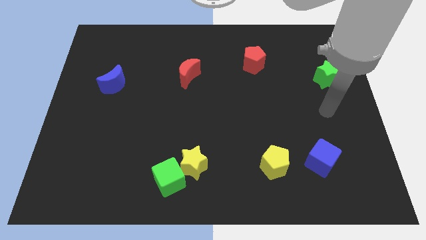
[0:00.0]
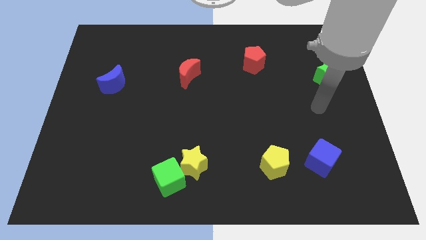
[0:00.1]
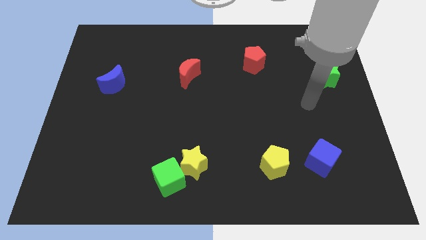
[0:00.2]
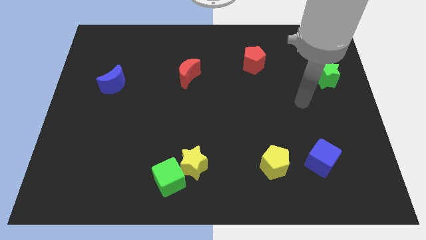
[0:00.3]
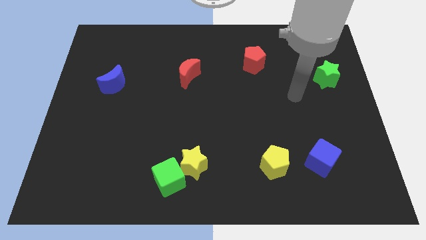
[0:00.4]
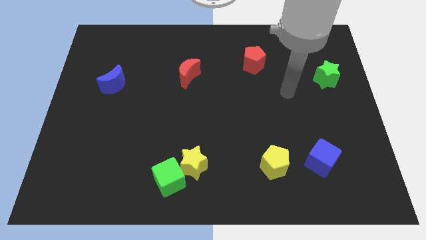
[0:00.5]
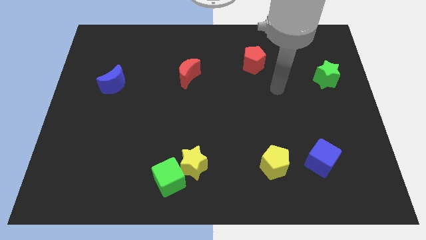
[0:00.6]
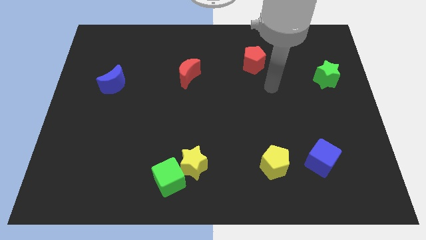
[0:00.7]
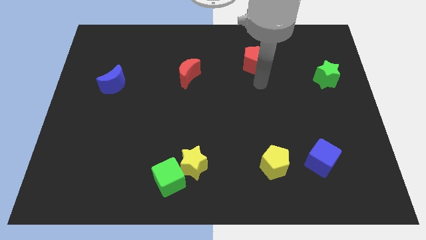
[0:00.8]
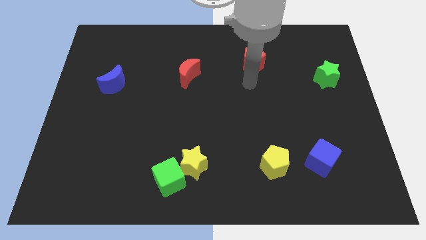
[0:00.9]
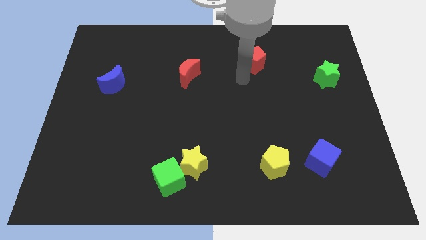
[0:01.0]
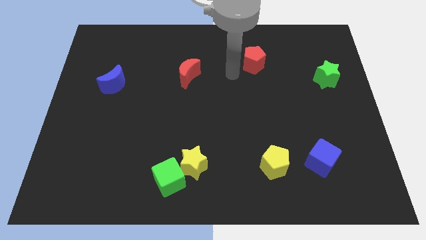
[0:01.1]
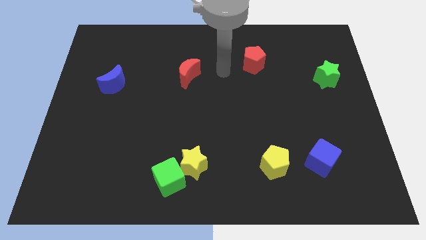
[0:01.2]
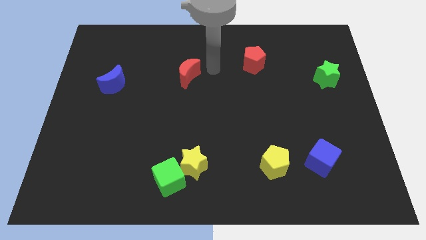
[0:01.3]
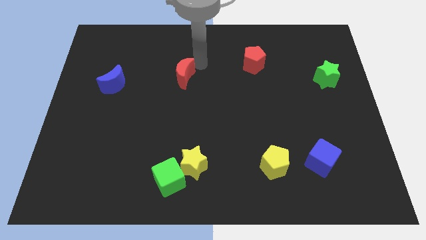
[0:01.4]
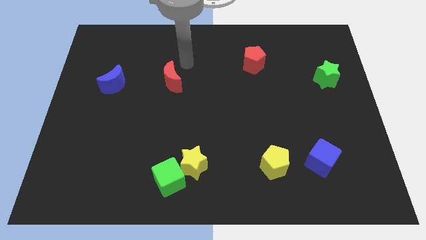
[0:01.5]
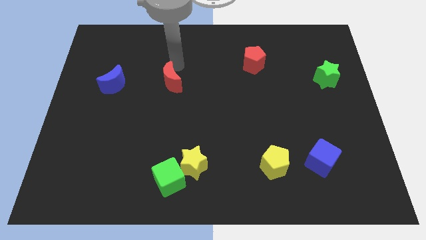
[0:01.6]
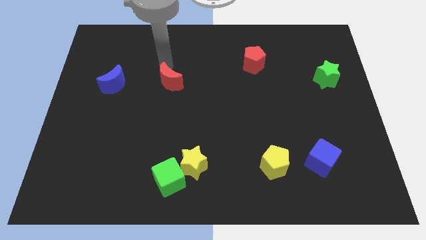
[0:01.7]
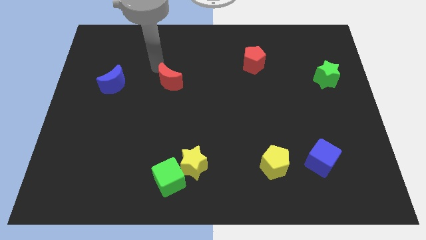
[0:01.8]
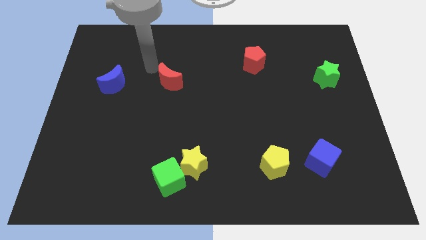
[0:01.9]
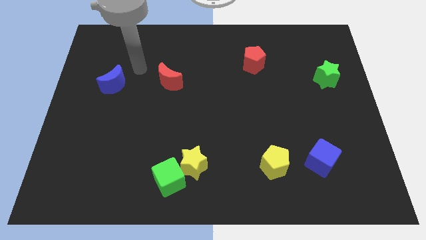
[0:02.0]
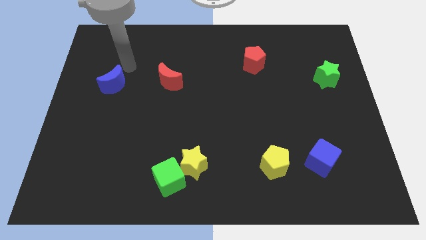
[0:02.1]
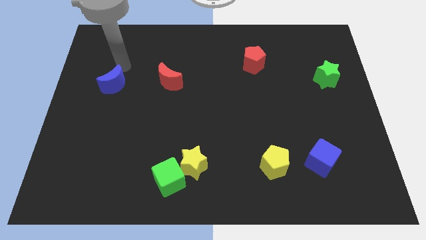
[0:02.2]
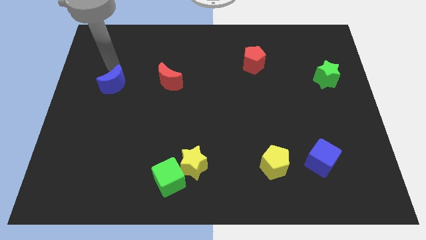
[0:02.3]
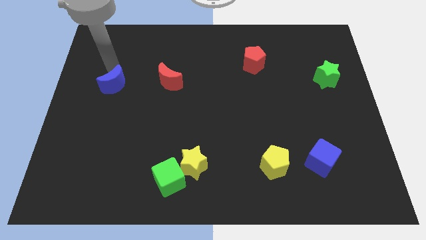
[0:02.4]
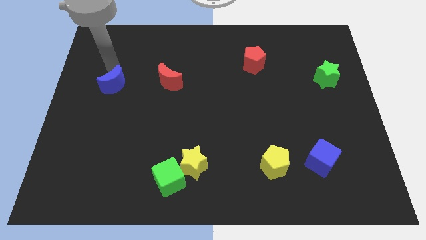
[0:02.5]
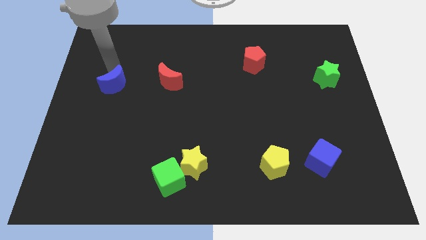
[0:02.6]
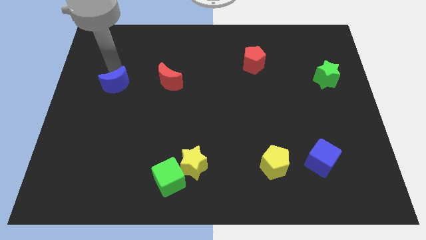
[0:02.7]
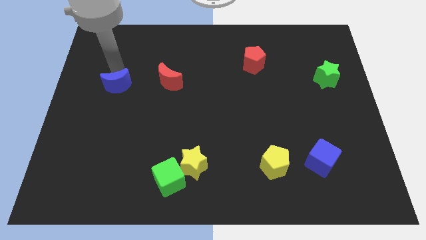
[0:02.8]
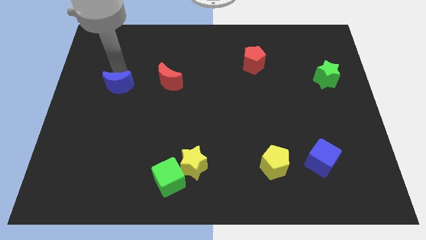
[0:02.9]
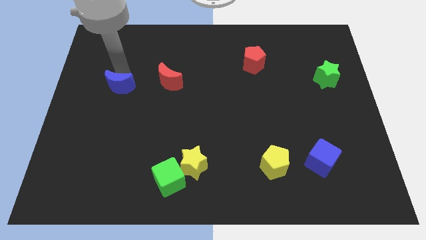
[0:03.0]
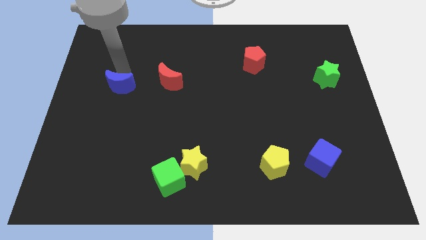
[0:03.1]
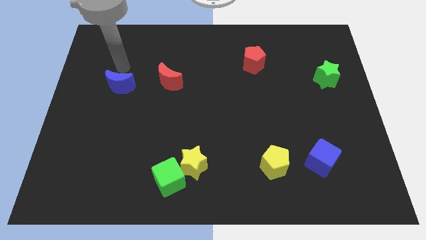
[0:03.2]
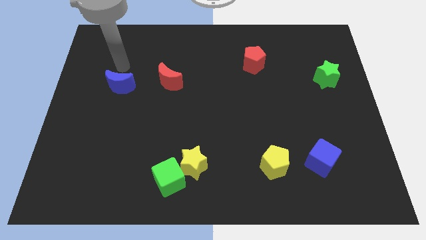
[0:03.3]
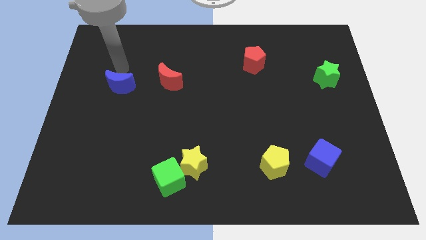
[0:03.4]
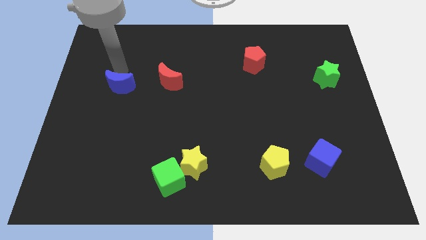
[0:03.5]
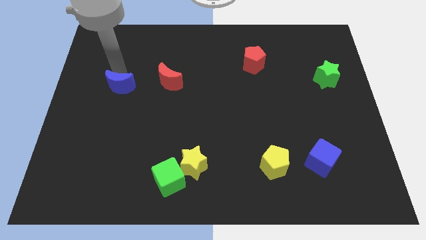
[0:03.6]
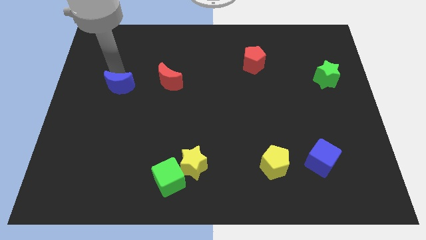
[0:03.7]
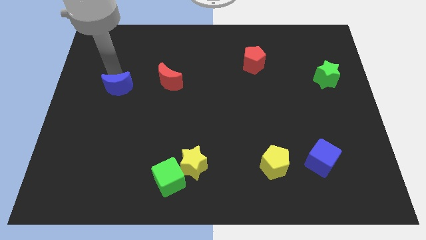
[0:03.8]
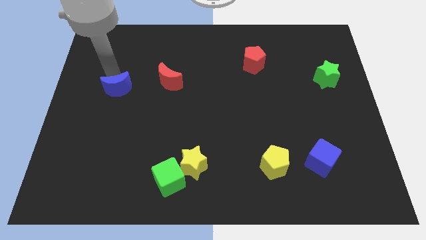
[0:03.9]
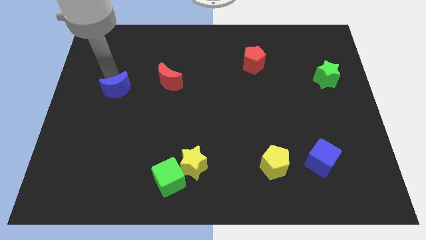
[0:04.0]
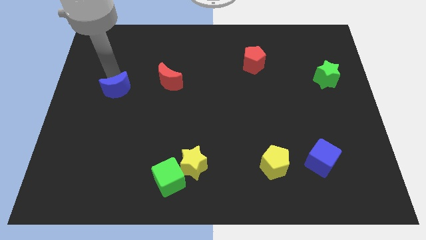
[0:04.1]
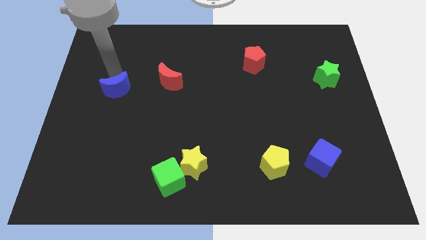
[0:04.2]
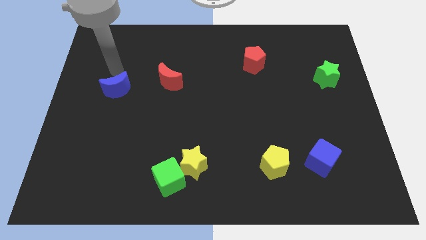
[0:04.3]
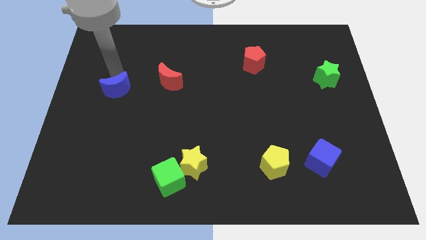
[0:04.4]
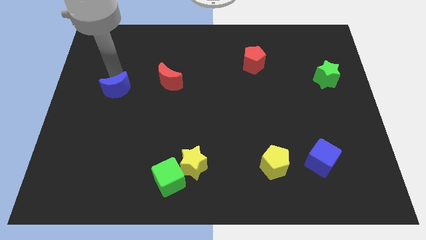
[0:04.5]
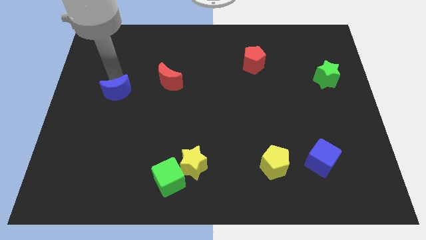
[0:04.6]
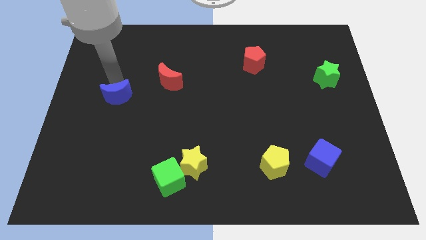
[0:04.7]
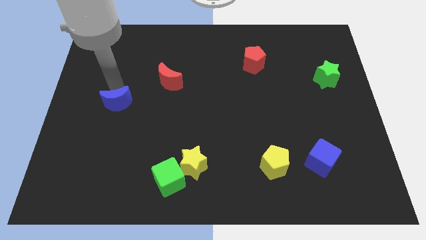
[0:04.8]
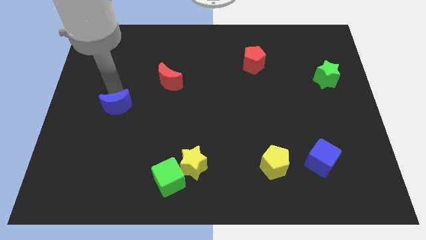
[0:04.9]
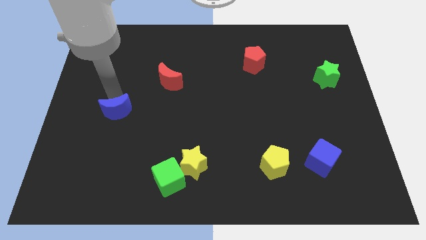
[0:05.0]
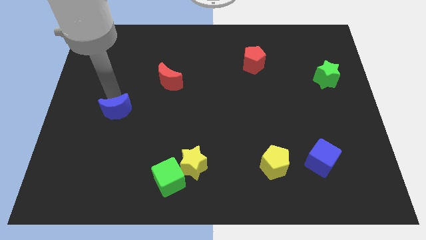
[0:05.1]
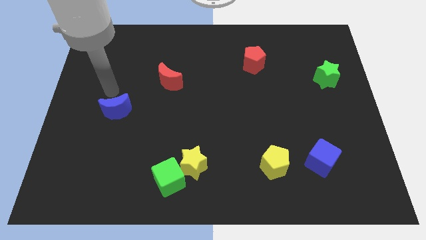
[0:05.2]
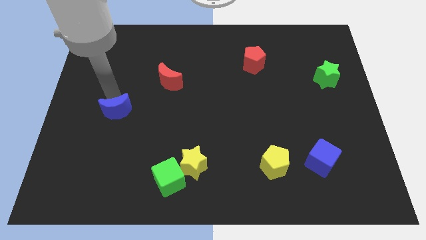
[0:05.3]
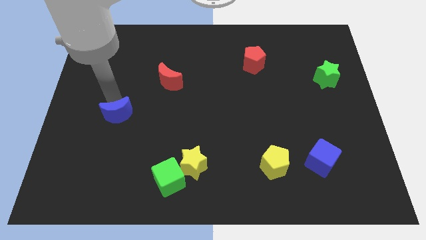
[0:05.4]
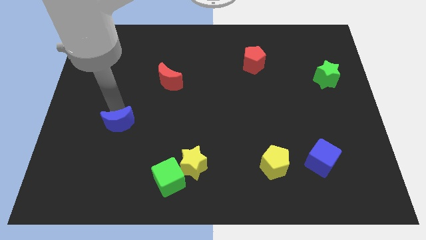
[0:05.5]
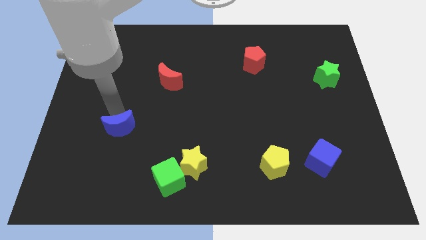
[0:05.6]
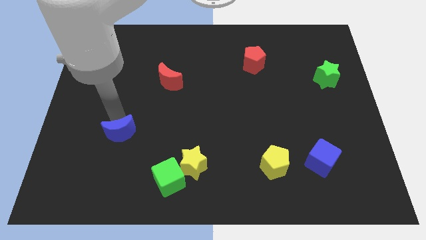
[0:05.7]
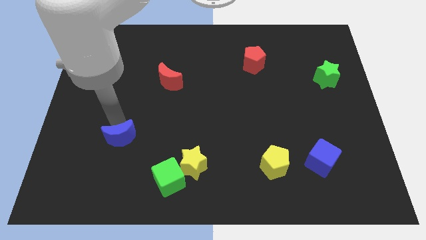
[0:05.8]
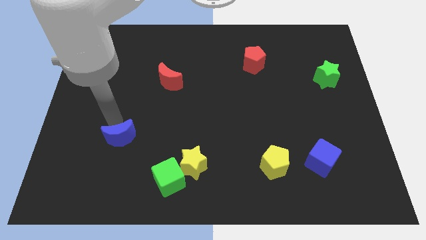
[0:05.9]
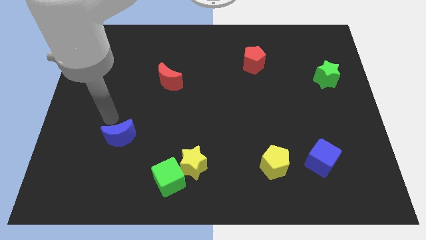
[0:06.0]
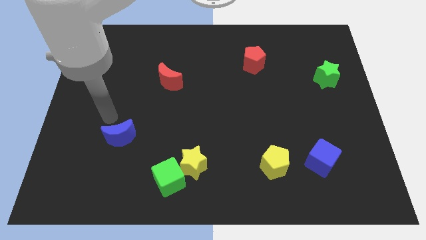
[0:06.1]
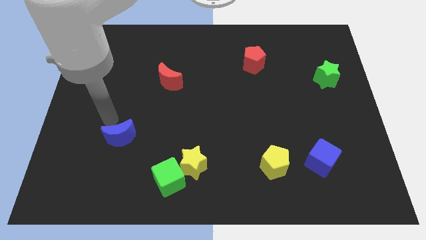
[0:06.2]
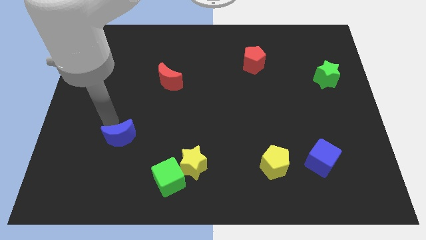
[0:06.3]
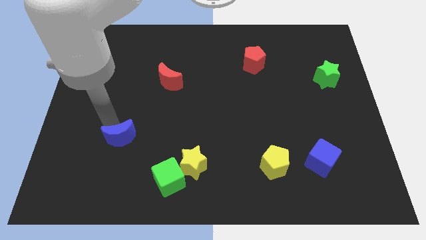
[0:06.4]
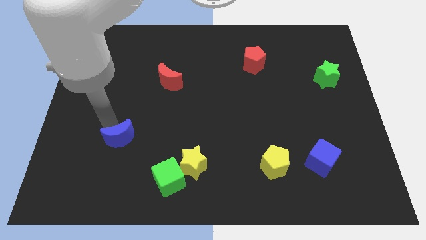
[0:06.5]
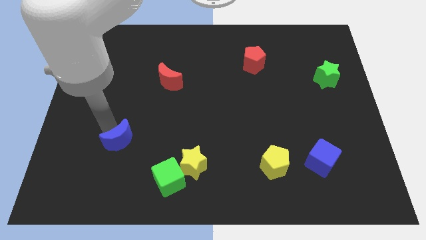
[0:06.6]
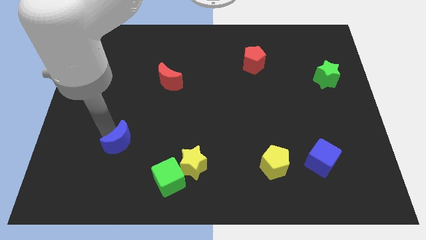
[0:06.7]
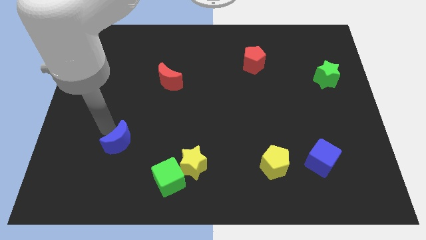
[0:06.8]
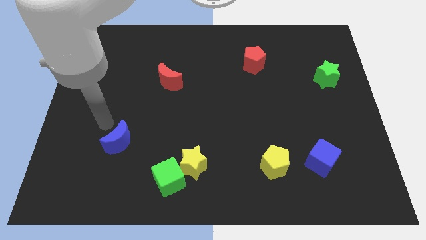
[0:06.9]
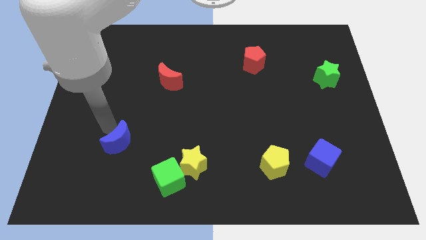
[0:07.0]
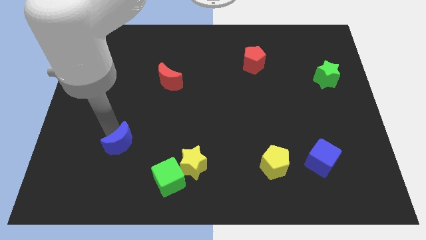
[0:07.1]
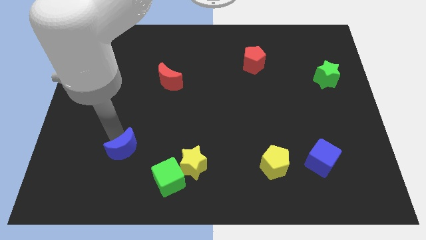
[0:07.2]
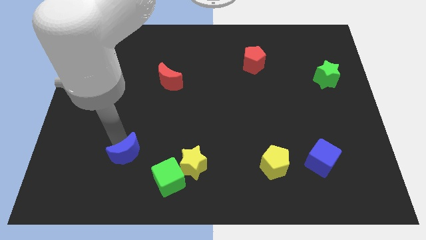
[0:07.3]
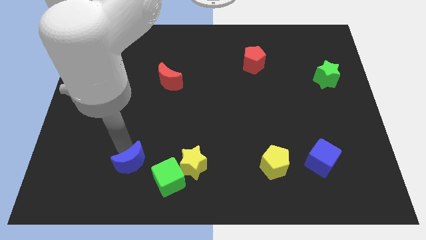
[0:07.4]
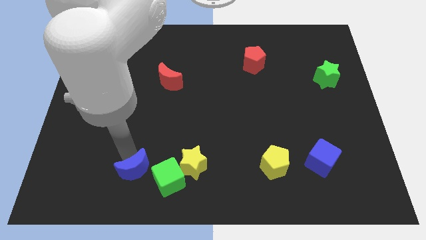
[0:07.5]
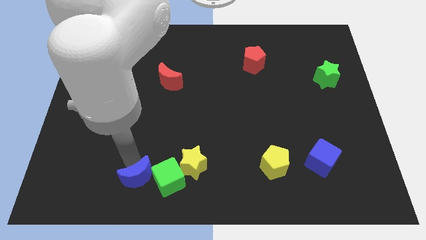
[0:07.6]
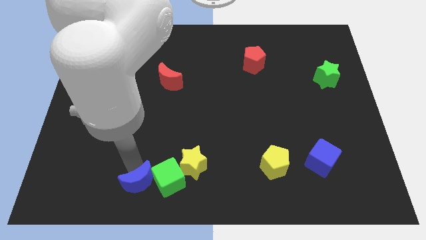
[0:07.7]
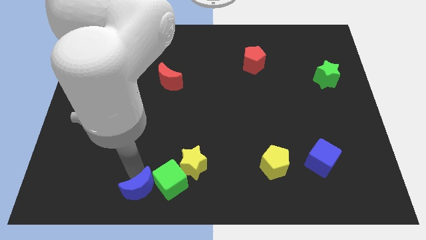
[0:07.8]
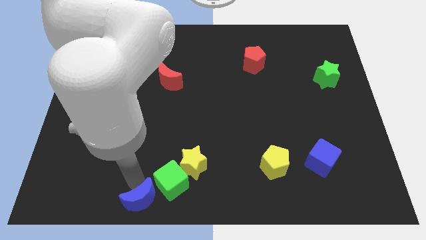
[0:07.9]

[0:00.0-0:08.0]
slide the blue moon to the bottom
